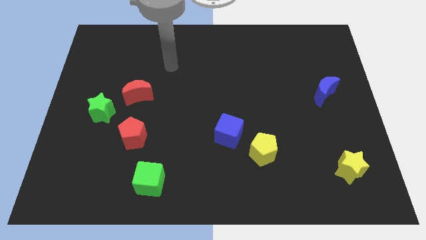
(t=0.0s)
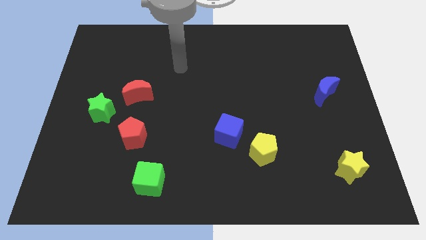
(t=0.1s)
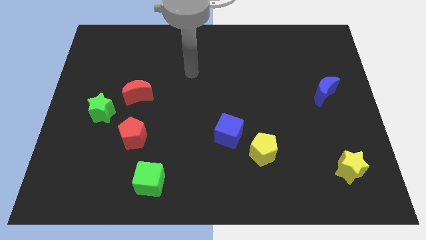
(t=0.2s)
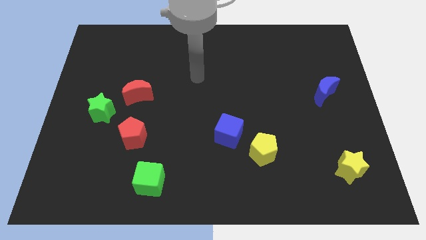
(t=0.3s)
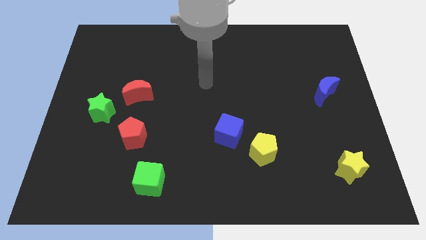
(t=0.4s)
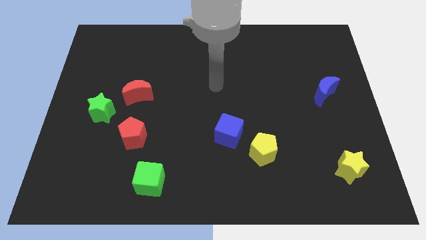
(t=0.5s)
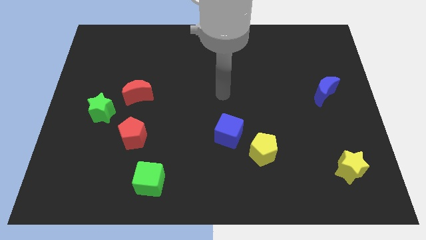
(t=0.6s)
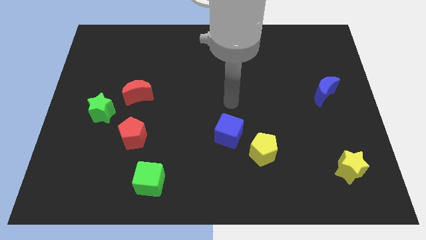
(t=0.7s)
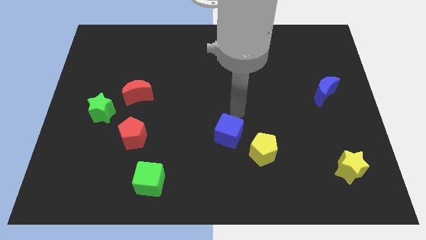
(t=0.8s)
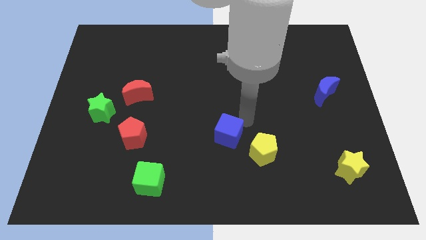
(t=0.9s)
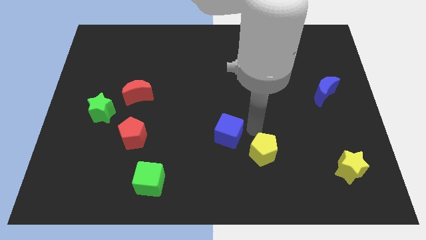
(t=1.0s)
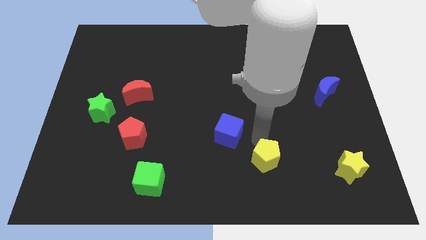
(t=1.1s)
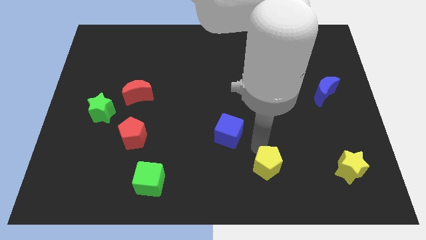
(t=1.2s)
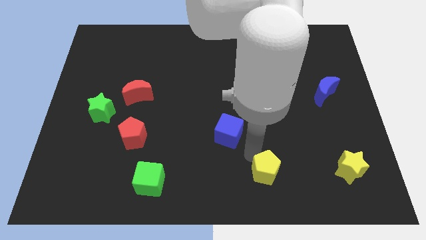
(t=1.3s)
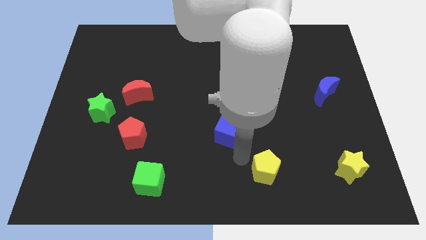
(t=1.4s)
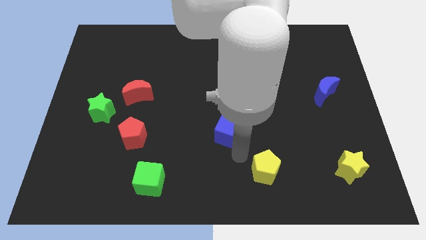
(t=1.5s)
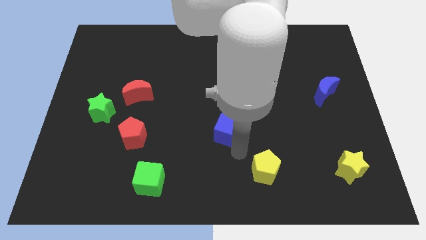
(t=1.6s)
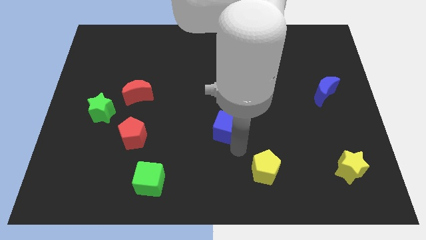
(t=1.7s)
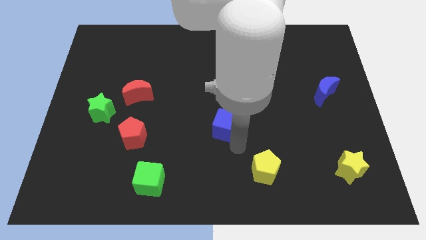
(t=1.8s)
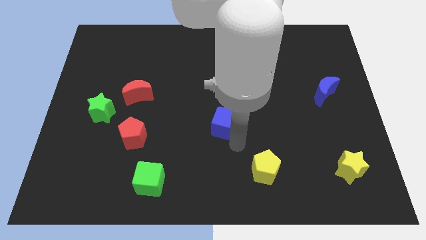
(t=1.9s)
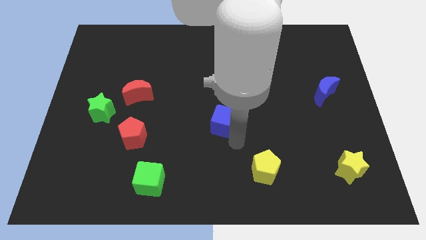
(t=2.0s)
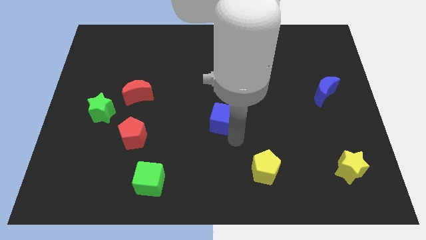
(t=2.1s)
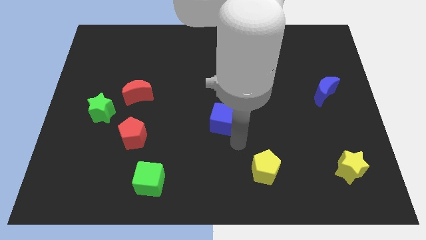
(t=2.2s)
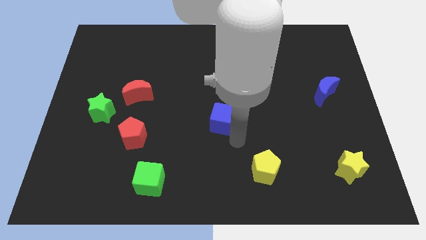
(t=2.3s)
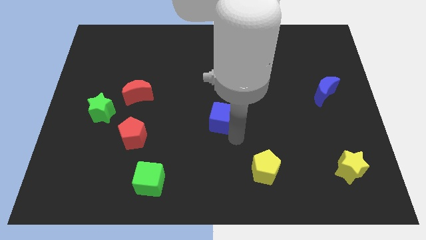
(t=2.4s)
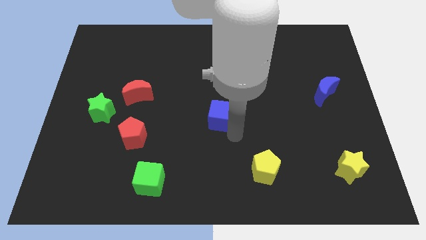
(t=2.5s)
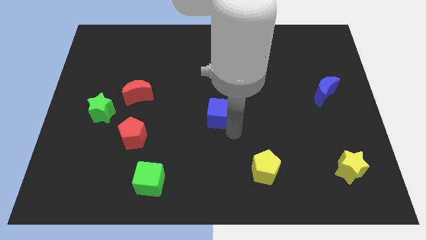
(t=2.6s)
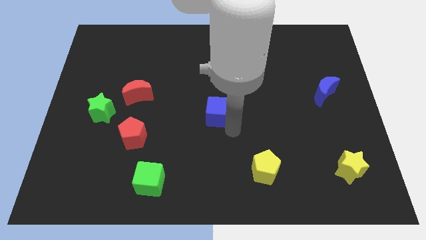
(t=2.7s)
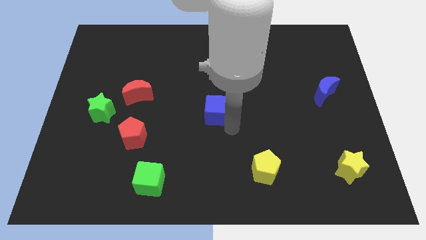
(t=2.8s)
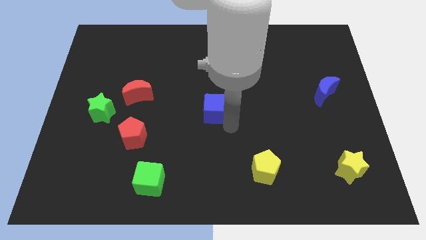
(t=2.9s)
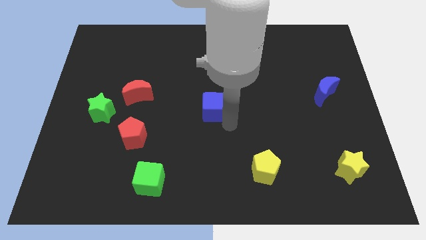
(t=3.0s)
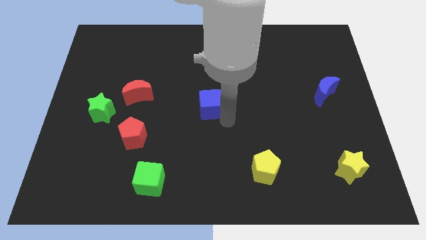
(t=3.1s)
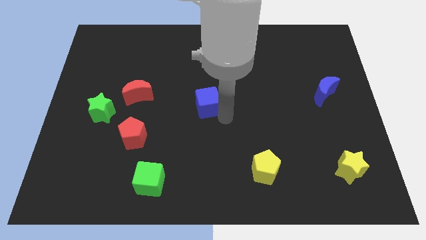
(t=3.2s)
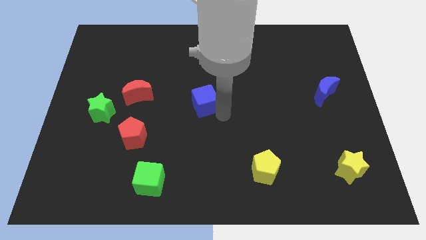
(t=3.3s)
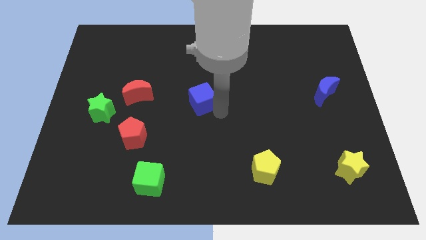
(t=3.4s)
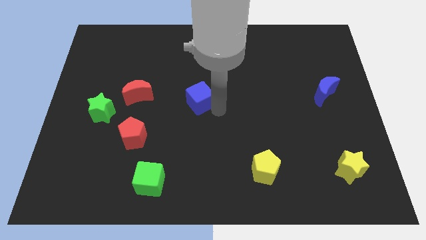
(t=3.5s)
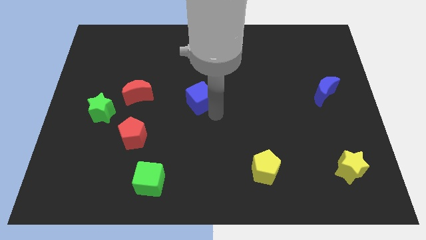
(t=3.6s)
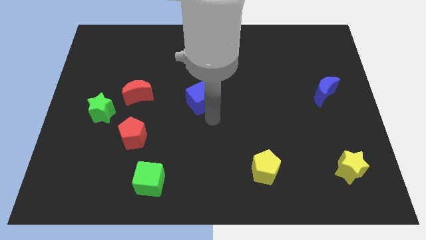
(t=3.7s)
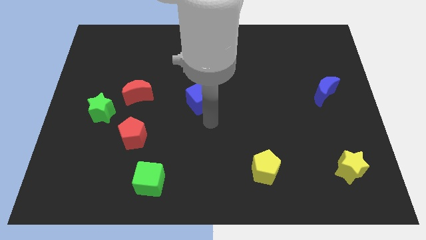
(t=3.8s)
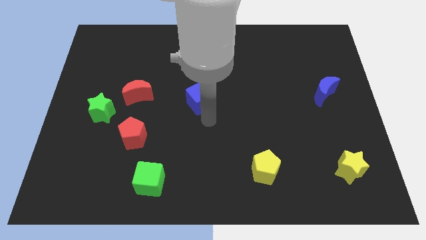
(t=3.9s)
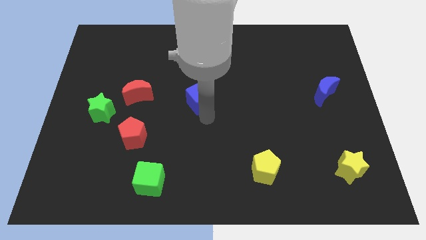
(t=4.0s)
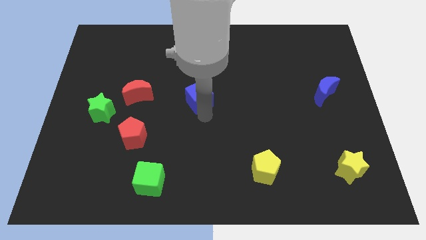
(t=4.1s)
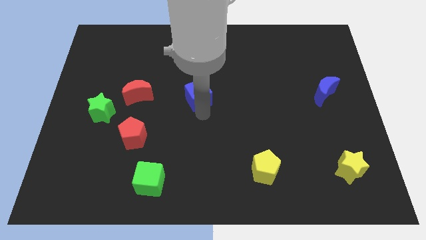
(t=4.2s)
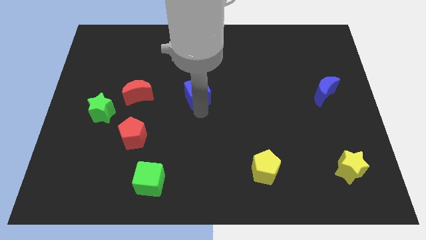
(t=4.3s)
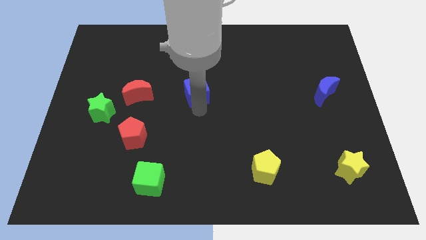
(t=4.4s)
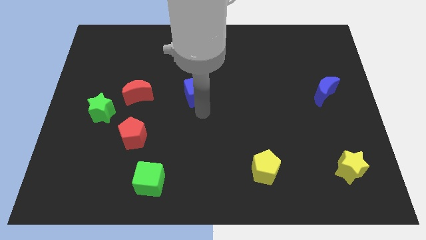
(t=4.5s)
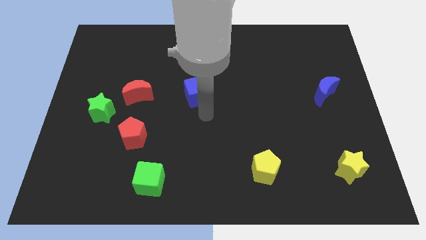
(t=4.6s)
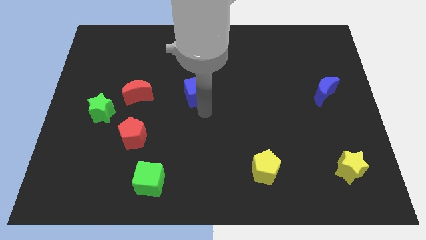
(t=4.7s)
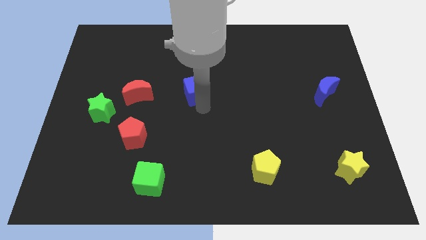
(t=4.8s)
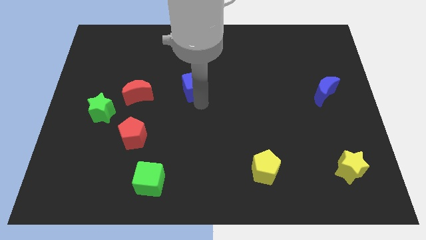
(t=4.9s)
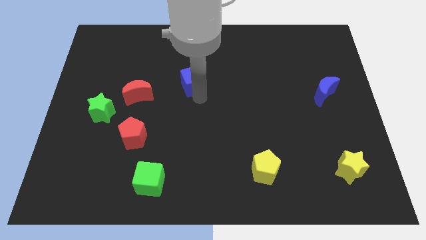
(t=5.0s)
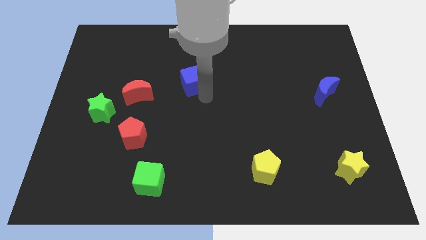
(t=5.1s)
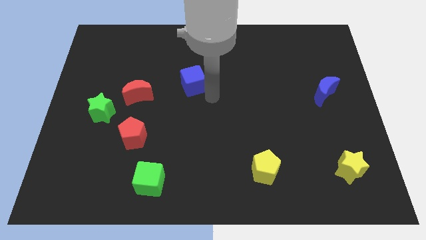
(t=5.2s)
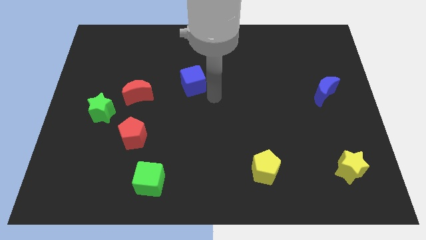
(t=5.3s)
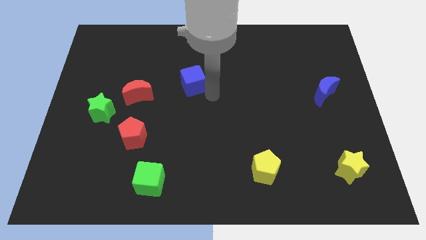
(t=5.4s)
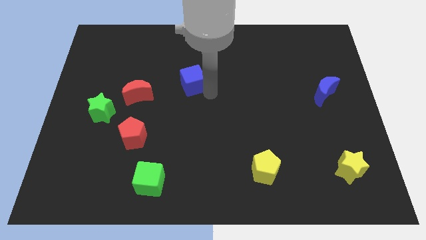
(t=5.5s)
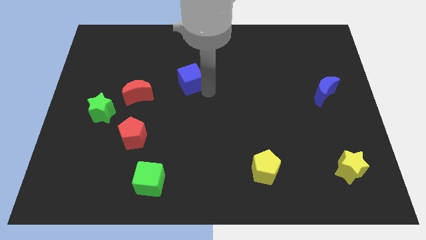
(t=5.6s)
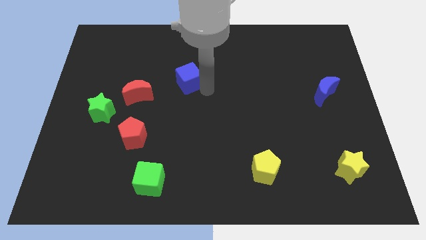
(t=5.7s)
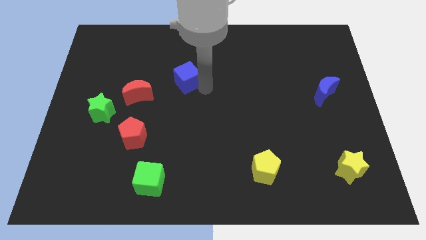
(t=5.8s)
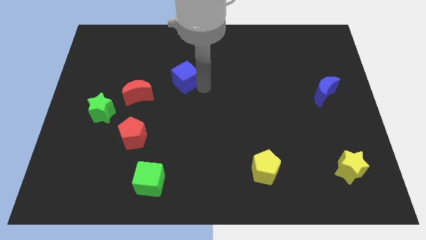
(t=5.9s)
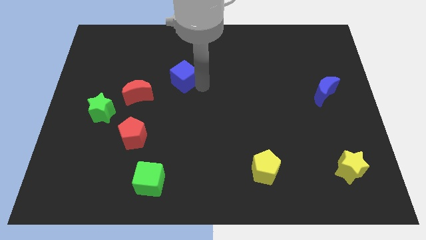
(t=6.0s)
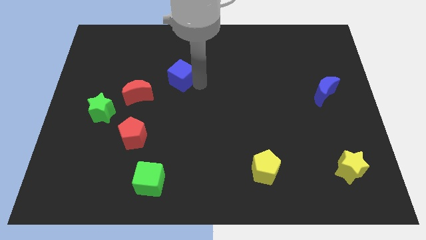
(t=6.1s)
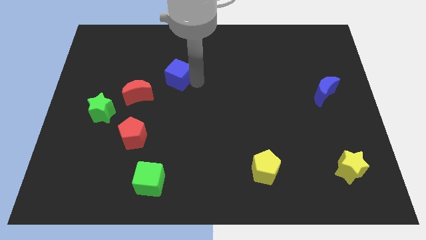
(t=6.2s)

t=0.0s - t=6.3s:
slide the blue cube up and then left

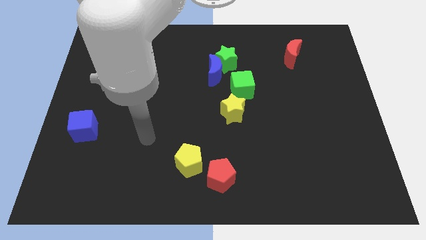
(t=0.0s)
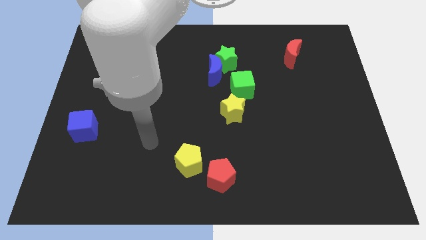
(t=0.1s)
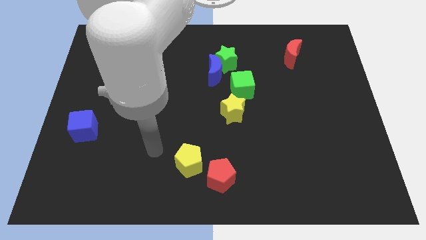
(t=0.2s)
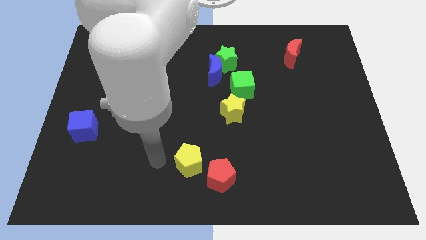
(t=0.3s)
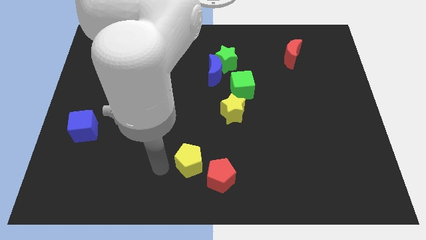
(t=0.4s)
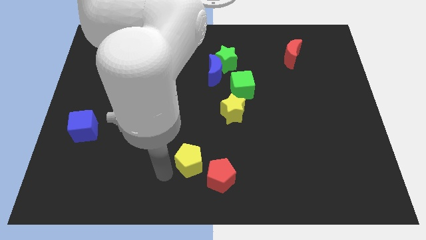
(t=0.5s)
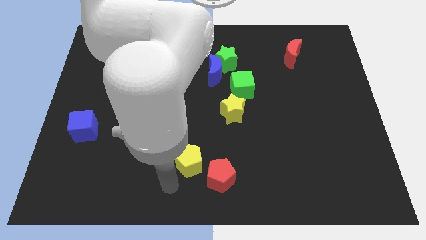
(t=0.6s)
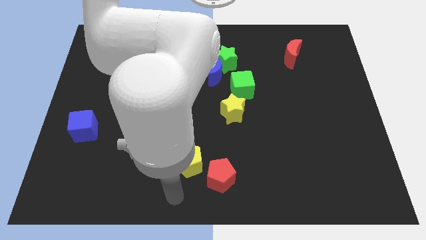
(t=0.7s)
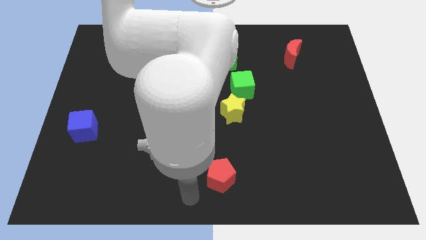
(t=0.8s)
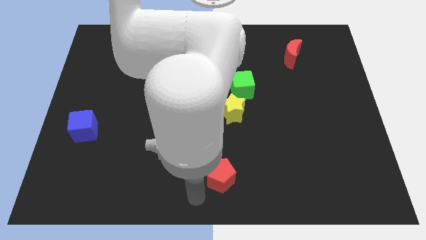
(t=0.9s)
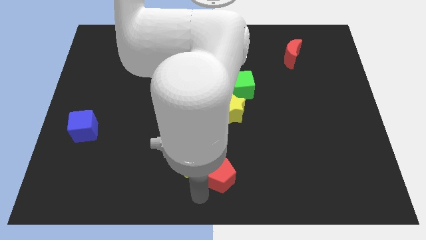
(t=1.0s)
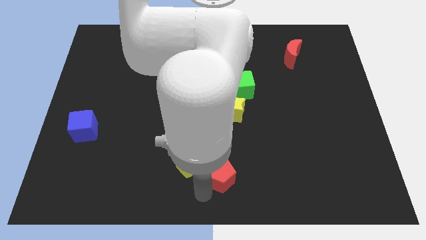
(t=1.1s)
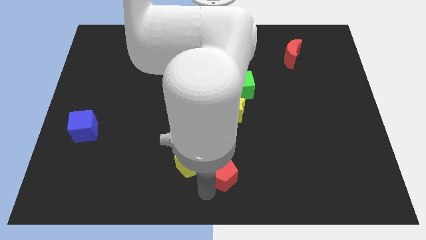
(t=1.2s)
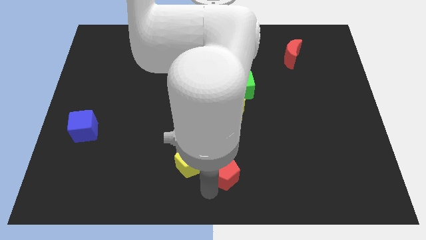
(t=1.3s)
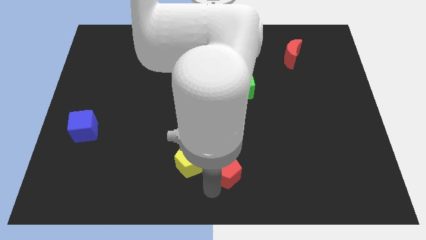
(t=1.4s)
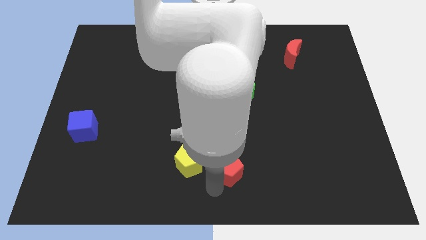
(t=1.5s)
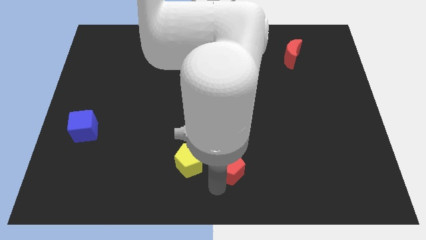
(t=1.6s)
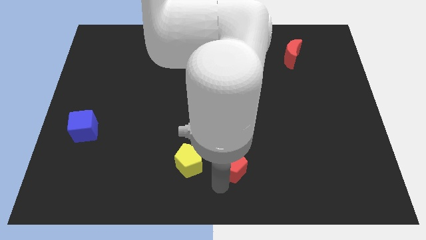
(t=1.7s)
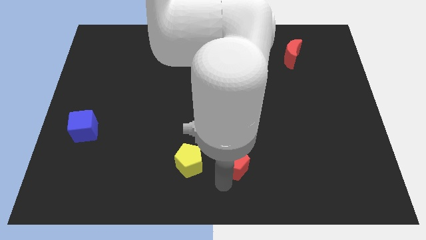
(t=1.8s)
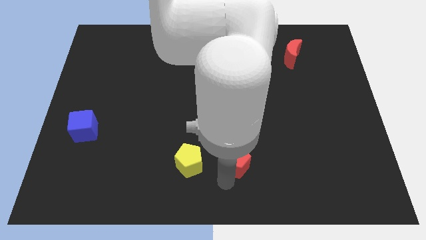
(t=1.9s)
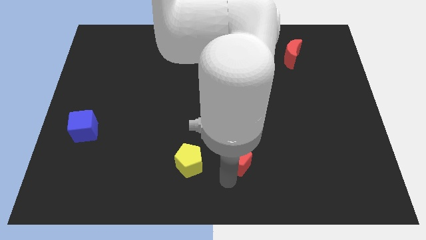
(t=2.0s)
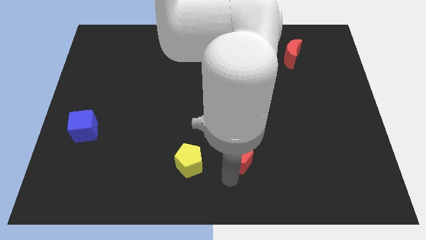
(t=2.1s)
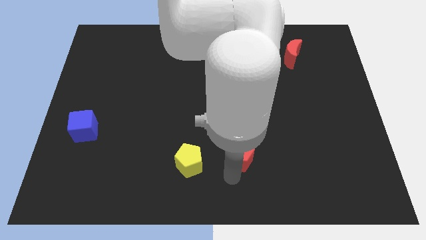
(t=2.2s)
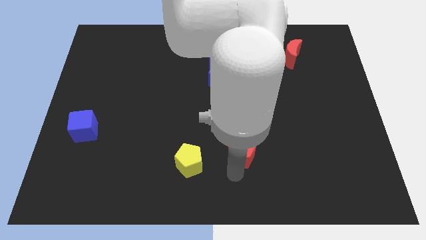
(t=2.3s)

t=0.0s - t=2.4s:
slightly slide the red pentagon up and to the right
